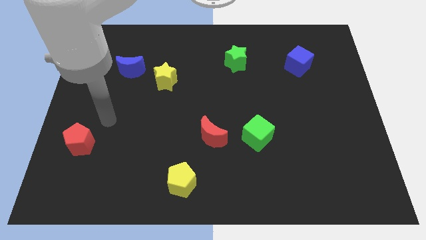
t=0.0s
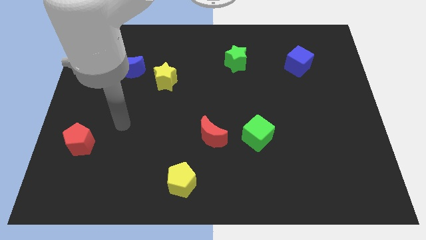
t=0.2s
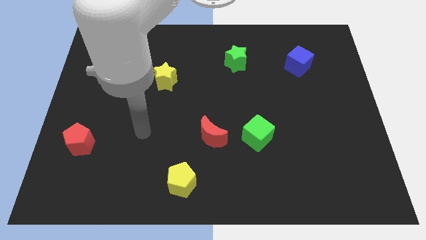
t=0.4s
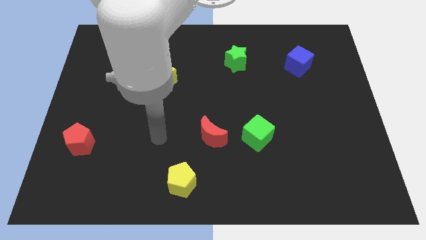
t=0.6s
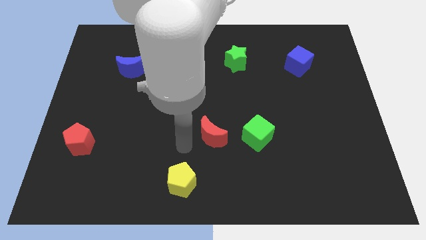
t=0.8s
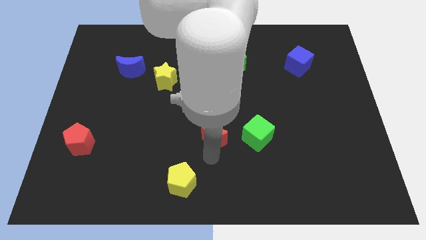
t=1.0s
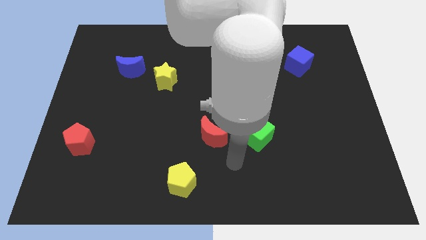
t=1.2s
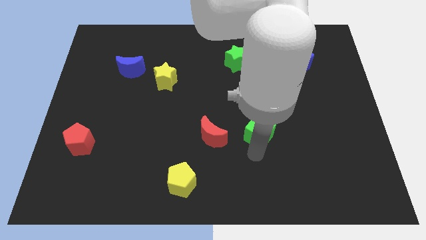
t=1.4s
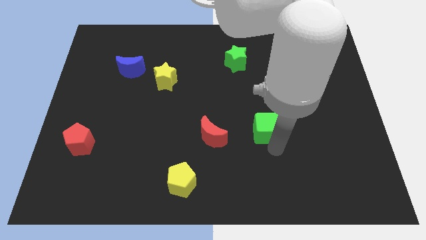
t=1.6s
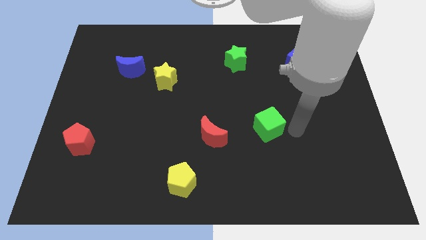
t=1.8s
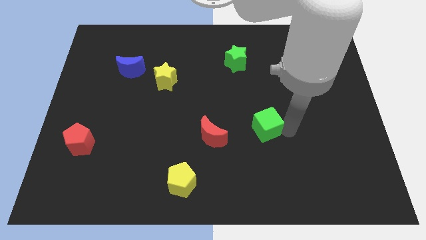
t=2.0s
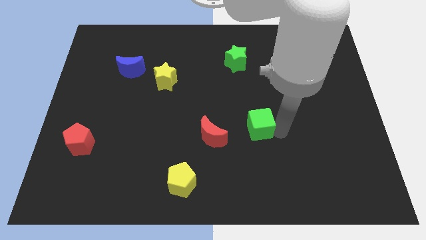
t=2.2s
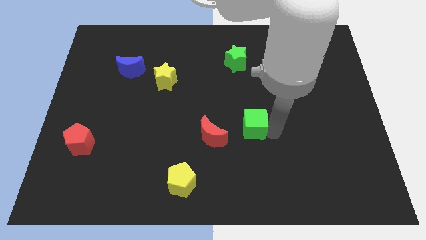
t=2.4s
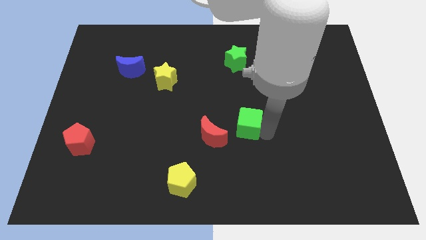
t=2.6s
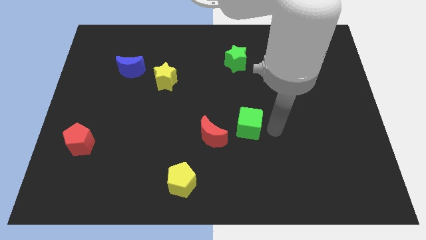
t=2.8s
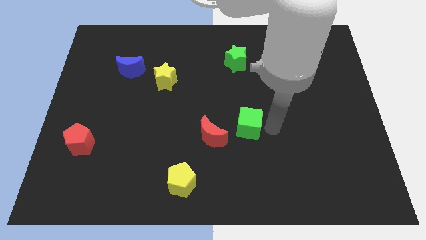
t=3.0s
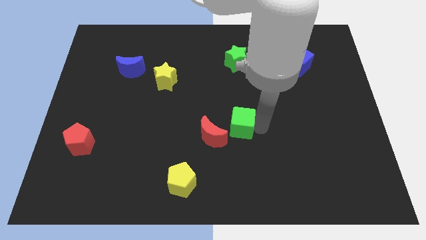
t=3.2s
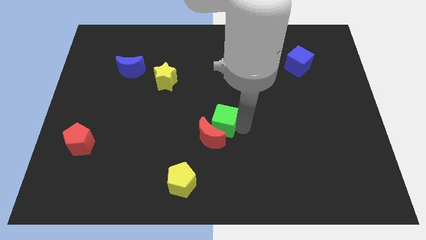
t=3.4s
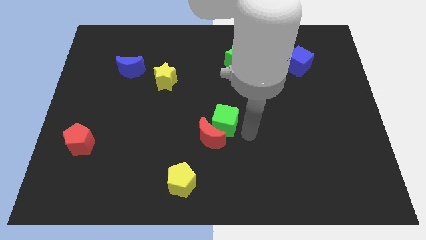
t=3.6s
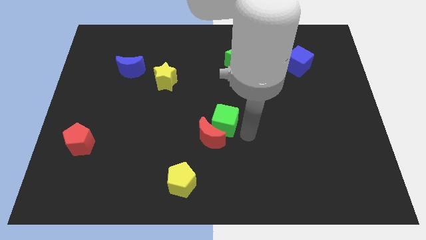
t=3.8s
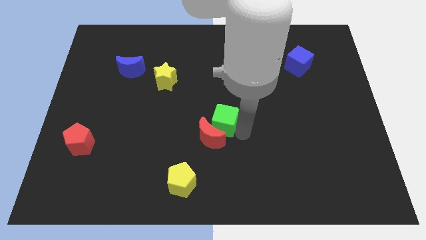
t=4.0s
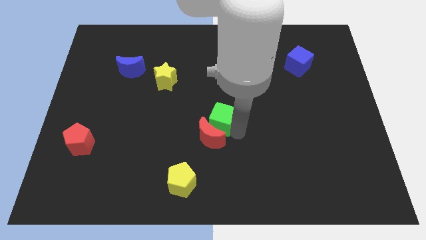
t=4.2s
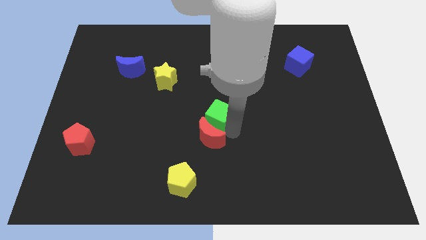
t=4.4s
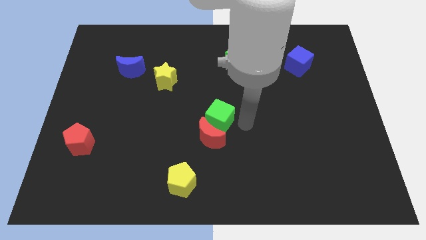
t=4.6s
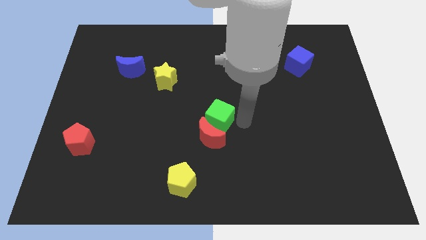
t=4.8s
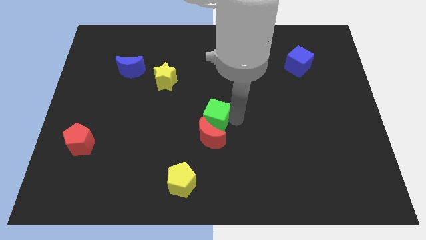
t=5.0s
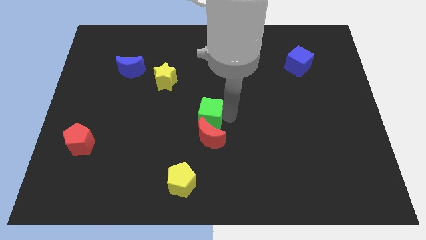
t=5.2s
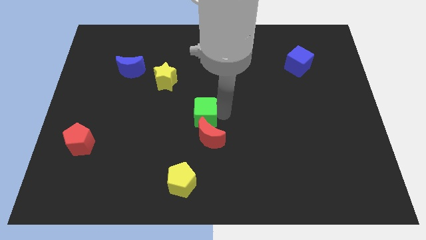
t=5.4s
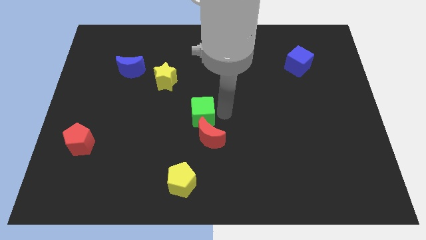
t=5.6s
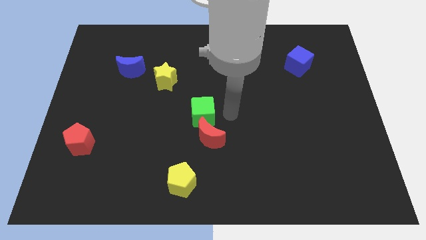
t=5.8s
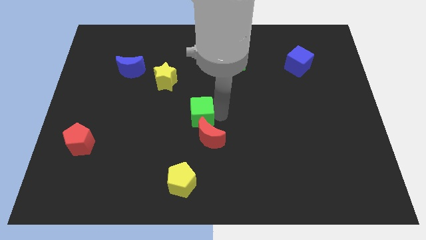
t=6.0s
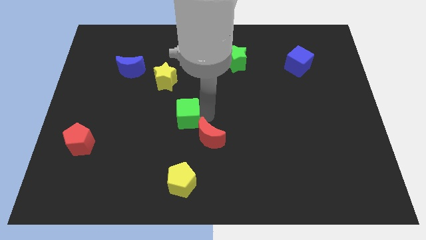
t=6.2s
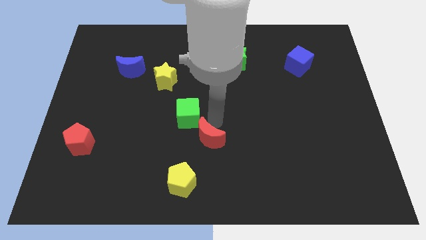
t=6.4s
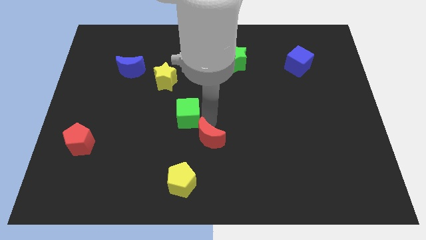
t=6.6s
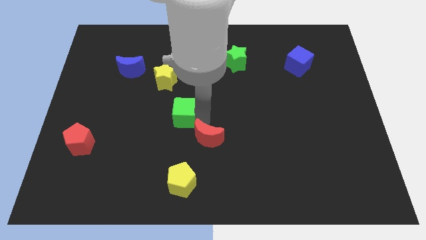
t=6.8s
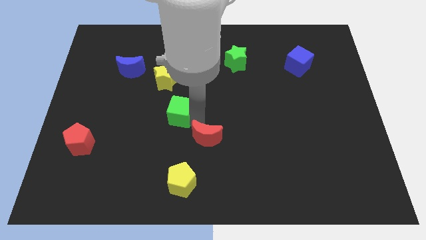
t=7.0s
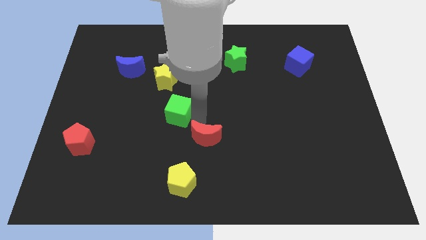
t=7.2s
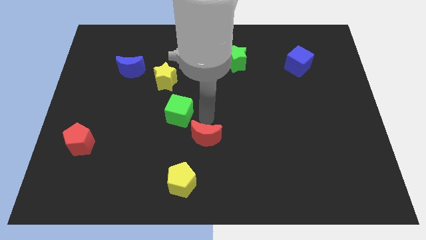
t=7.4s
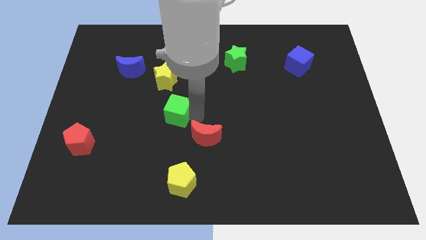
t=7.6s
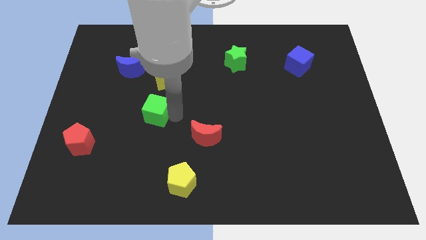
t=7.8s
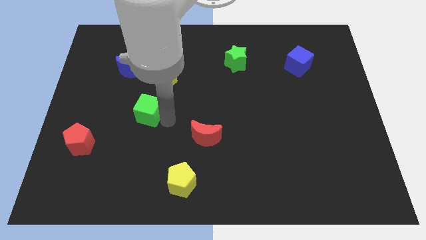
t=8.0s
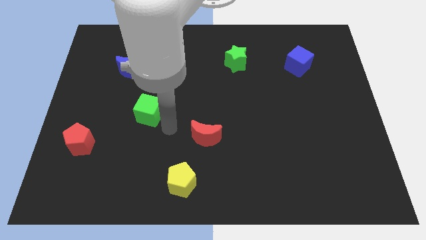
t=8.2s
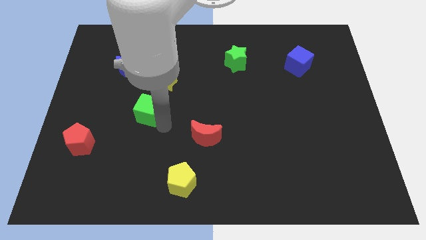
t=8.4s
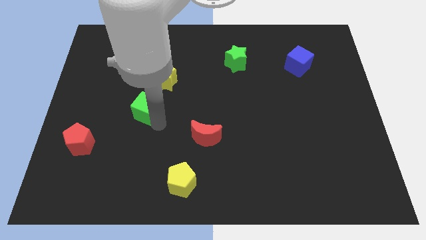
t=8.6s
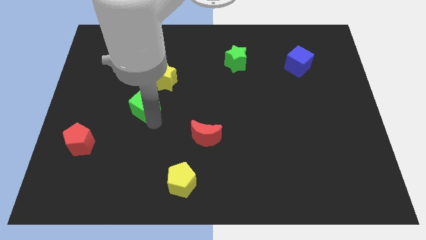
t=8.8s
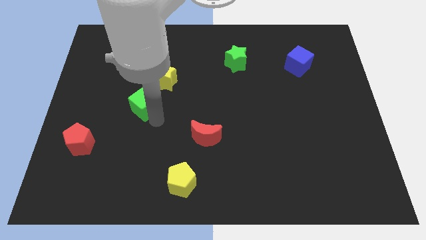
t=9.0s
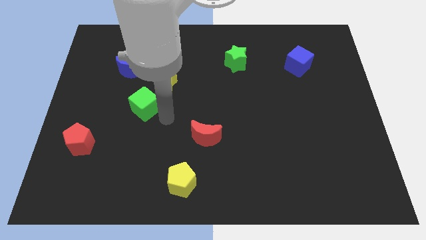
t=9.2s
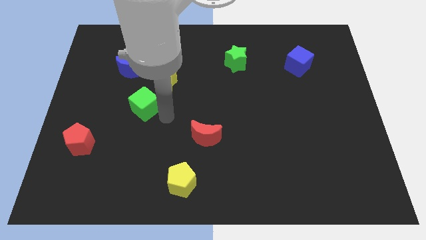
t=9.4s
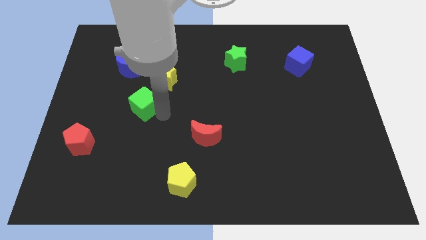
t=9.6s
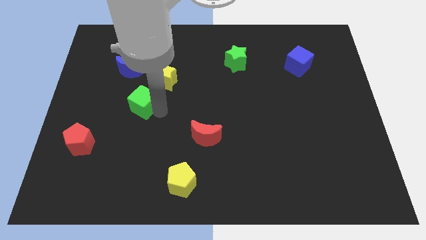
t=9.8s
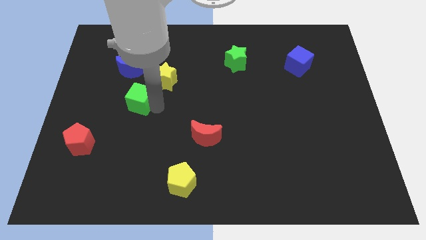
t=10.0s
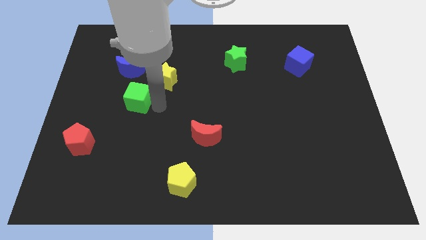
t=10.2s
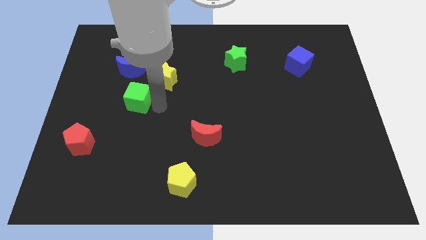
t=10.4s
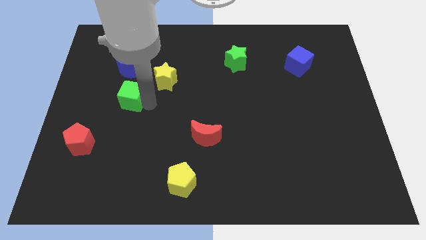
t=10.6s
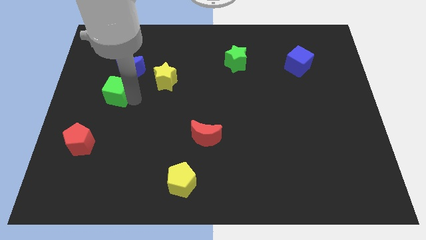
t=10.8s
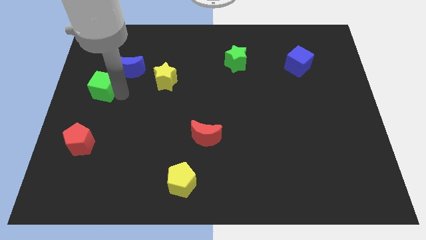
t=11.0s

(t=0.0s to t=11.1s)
slide the green cube to the center left

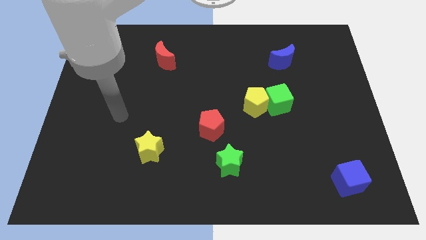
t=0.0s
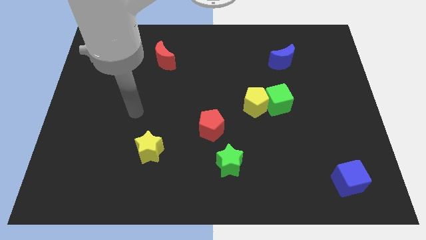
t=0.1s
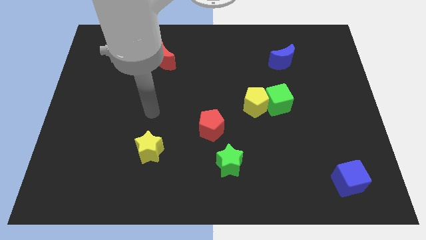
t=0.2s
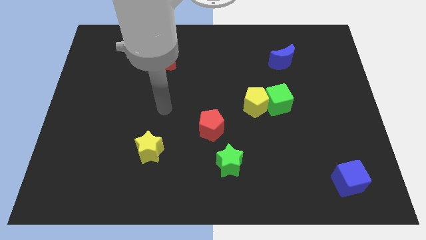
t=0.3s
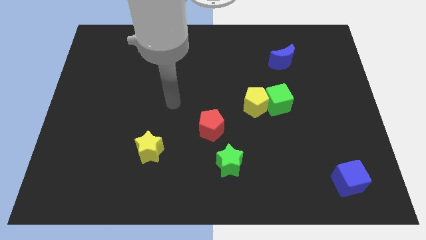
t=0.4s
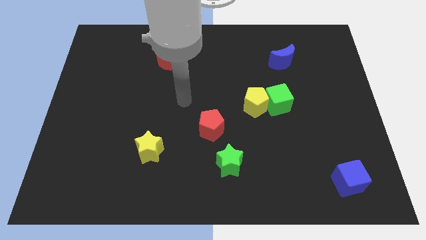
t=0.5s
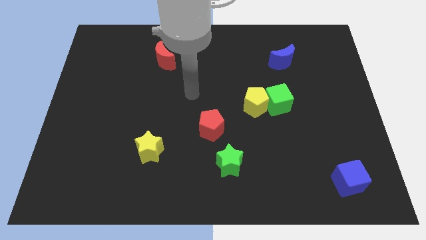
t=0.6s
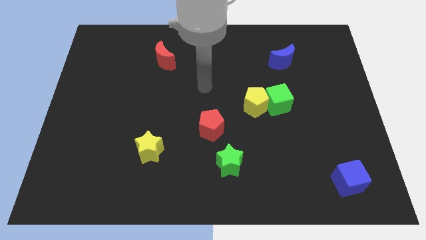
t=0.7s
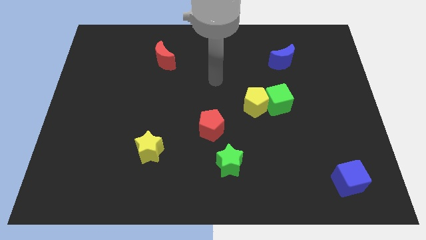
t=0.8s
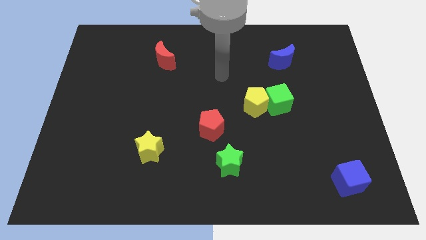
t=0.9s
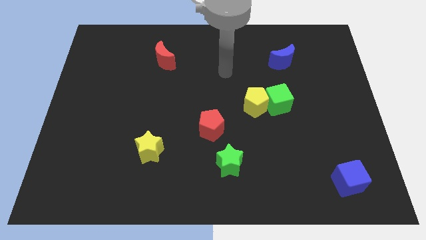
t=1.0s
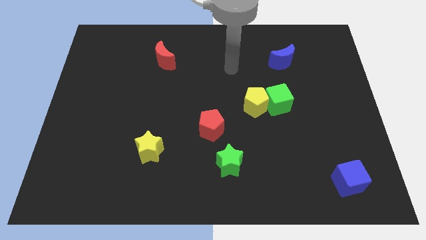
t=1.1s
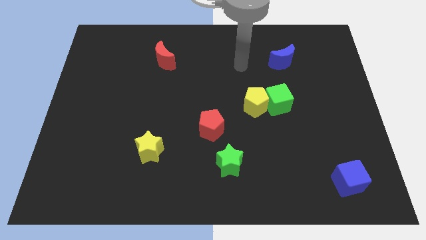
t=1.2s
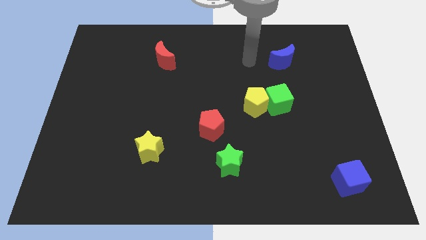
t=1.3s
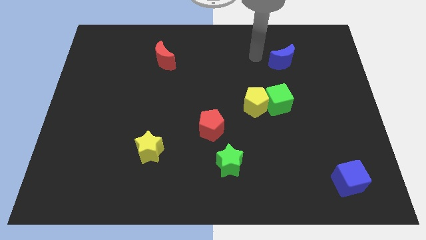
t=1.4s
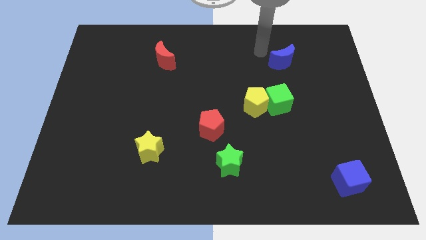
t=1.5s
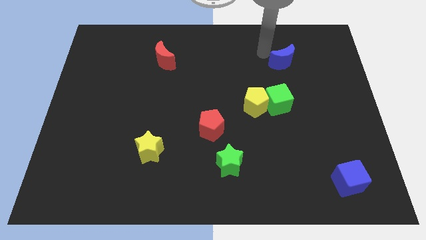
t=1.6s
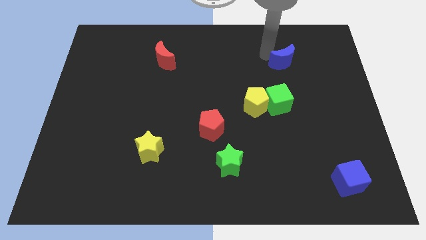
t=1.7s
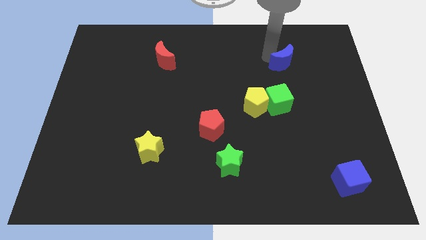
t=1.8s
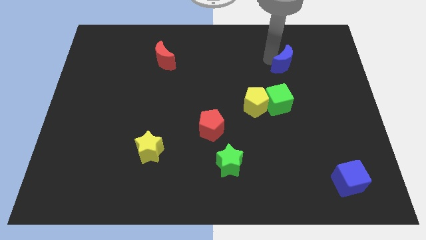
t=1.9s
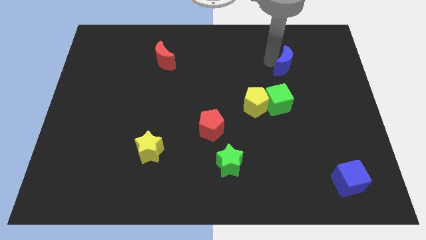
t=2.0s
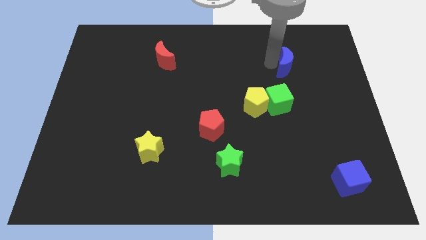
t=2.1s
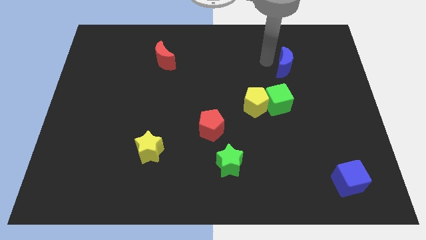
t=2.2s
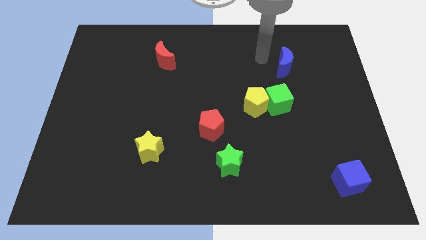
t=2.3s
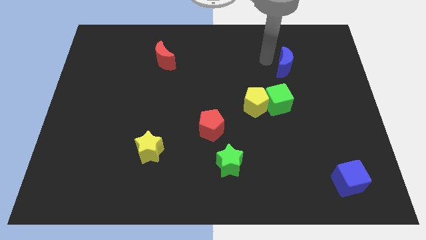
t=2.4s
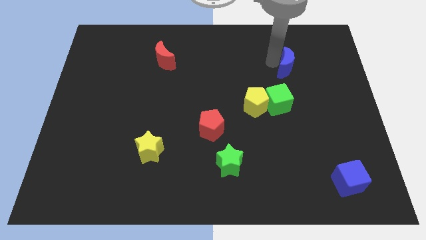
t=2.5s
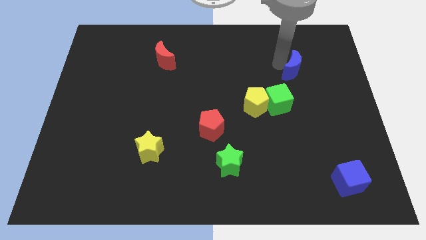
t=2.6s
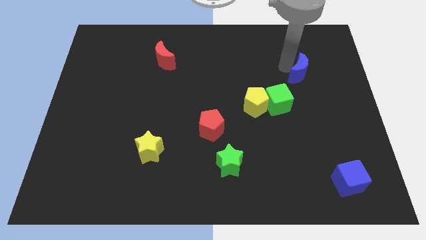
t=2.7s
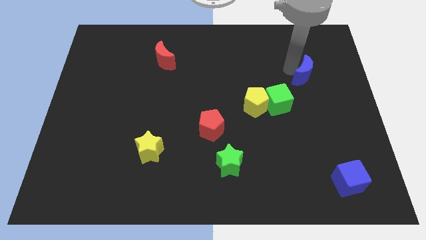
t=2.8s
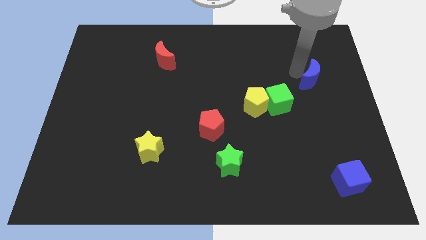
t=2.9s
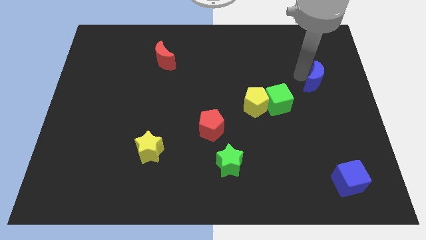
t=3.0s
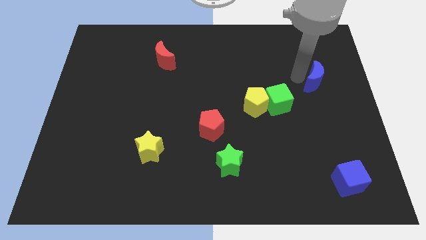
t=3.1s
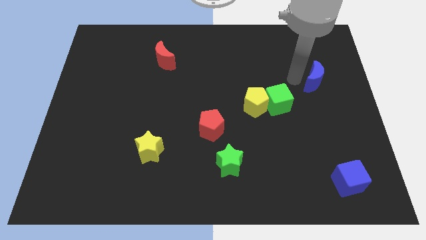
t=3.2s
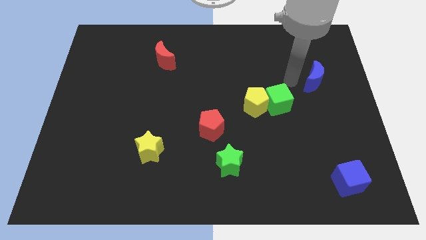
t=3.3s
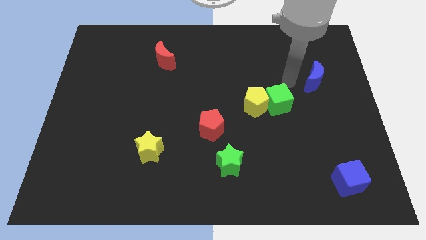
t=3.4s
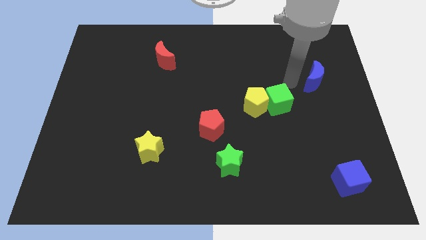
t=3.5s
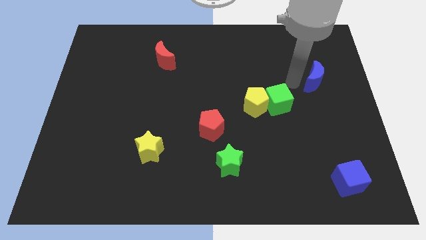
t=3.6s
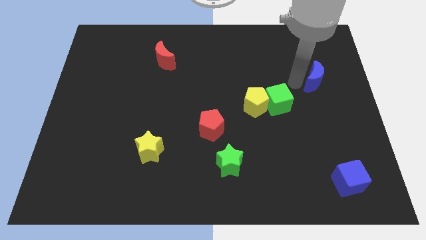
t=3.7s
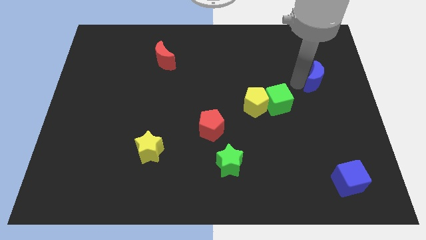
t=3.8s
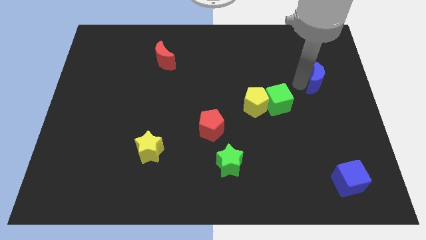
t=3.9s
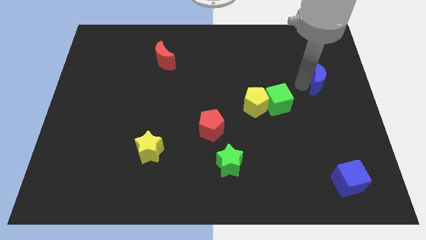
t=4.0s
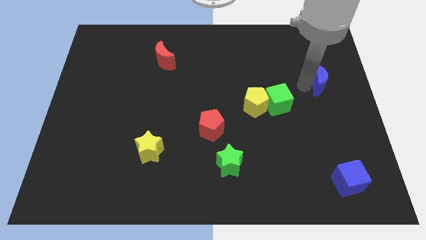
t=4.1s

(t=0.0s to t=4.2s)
push the blue moon to the right side
